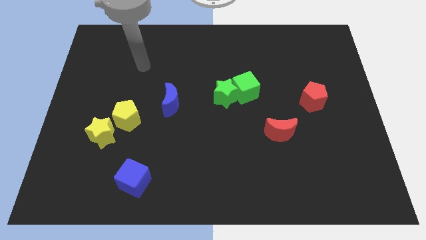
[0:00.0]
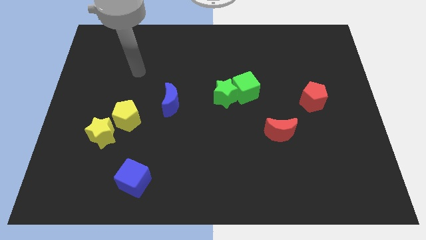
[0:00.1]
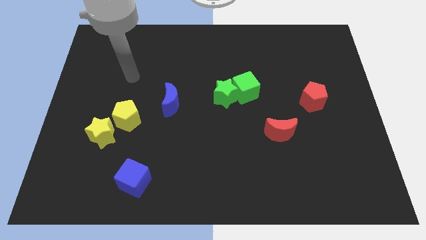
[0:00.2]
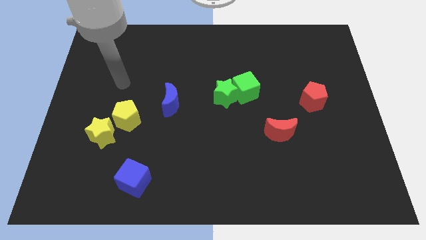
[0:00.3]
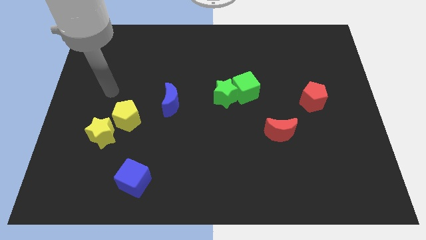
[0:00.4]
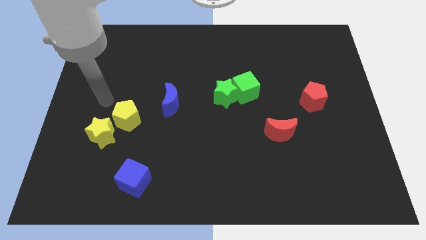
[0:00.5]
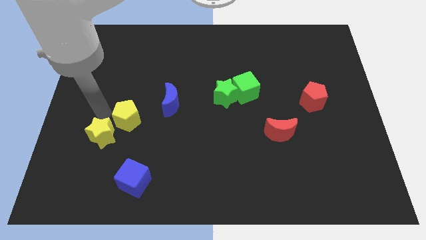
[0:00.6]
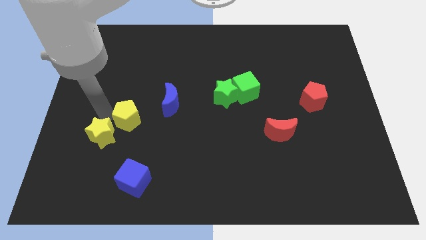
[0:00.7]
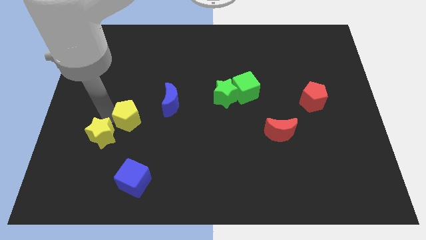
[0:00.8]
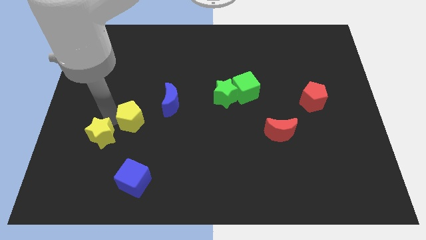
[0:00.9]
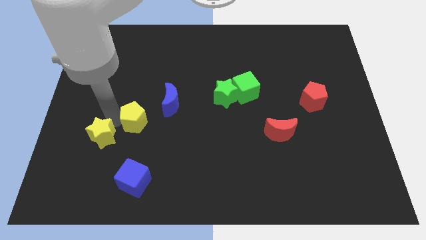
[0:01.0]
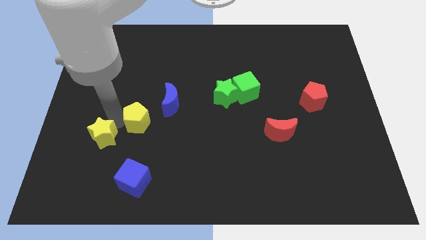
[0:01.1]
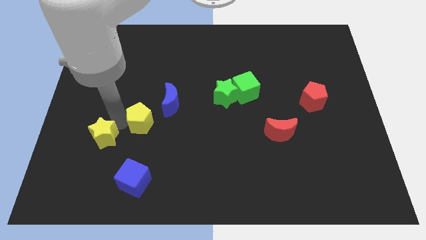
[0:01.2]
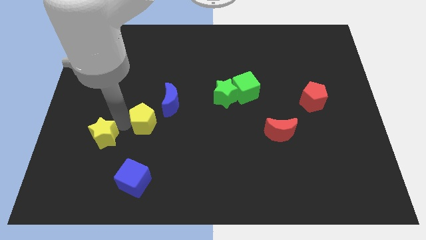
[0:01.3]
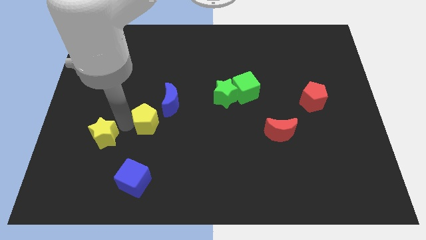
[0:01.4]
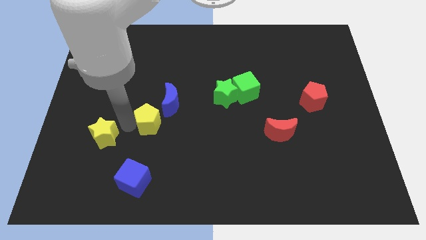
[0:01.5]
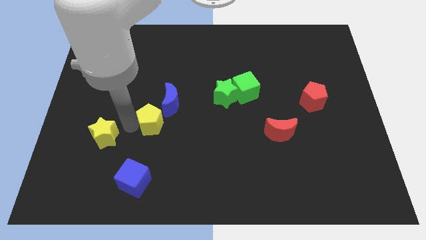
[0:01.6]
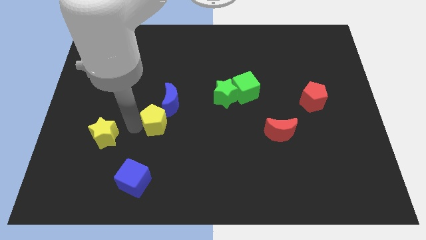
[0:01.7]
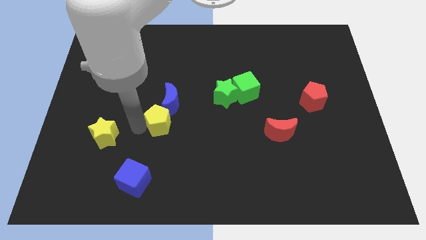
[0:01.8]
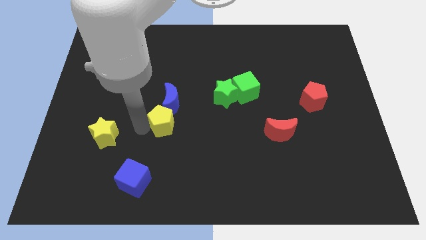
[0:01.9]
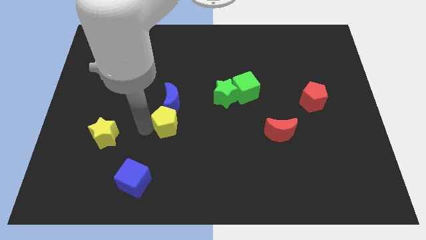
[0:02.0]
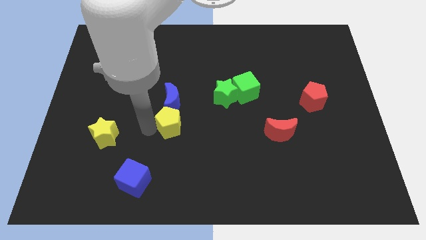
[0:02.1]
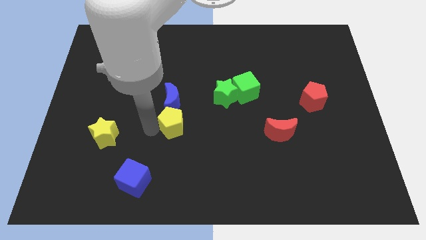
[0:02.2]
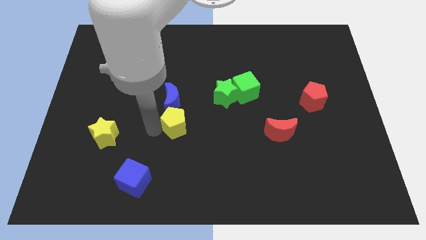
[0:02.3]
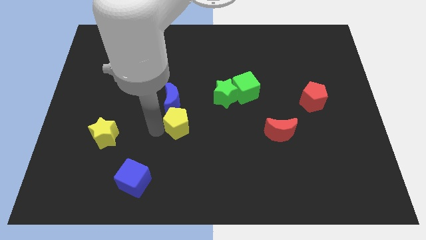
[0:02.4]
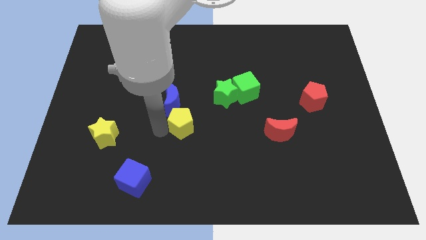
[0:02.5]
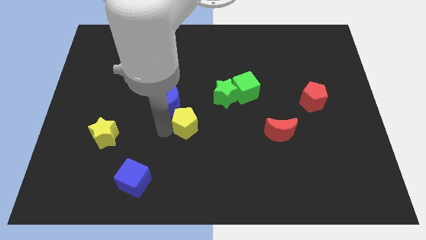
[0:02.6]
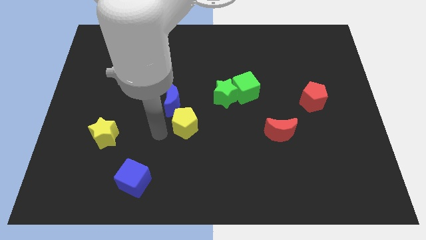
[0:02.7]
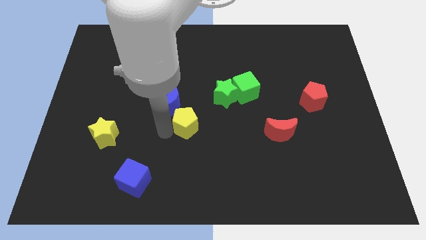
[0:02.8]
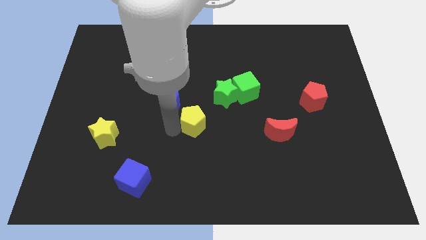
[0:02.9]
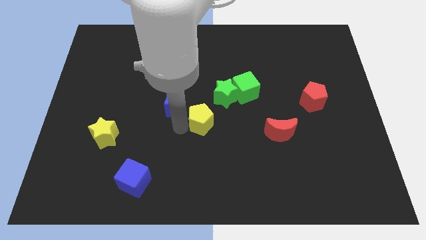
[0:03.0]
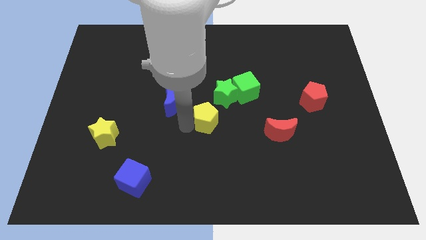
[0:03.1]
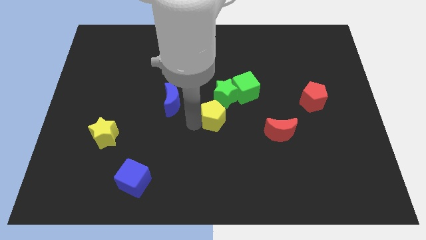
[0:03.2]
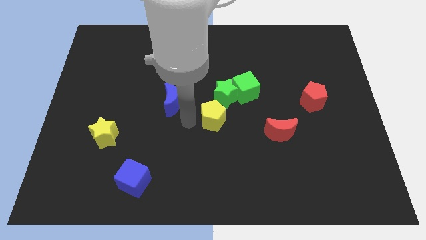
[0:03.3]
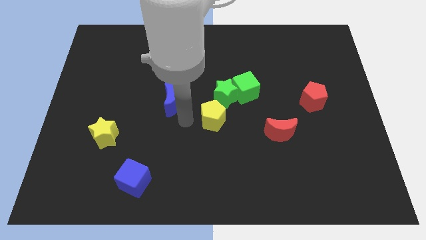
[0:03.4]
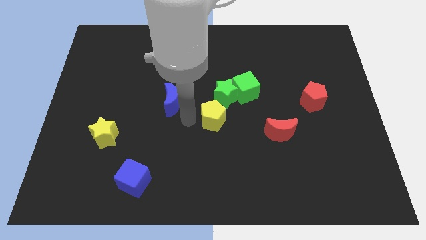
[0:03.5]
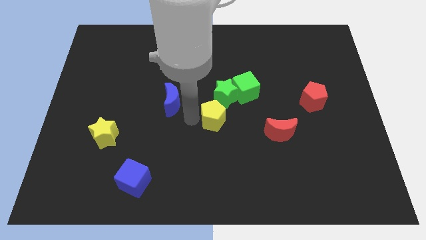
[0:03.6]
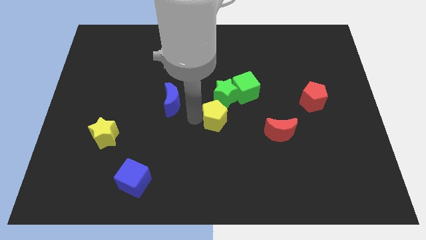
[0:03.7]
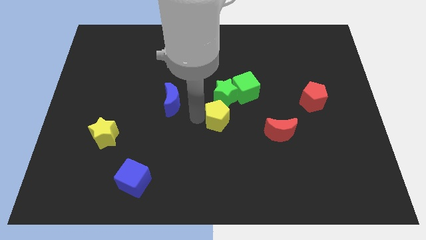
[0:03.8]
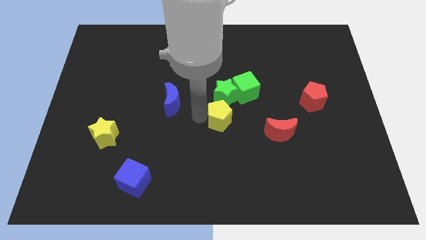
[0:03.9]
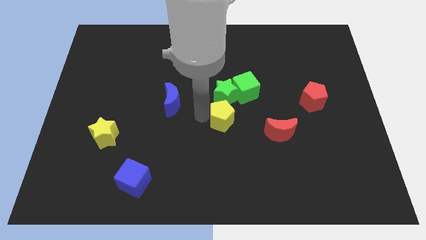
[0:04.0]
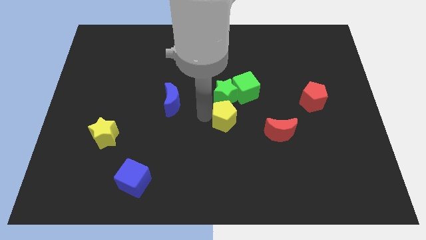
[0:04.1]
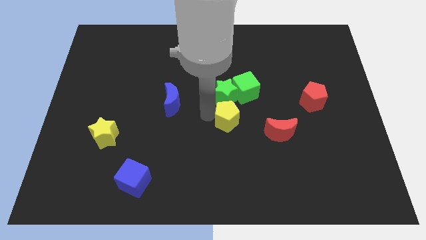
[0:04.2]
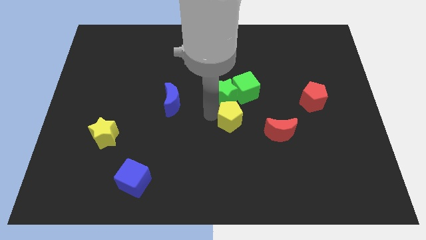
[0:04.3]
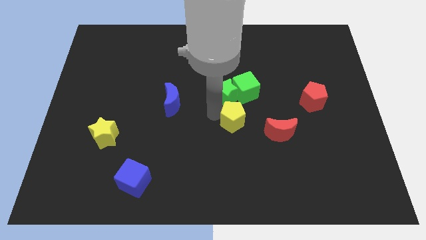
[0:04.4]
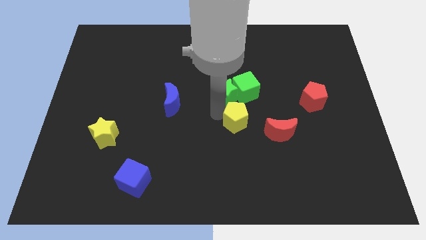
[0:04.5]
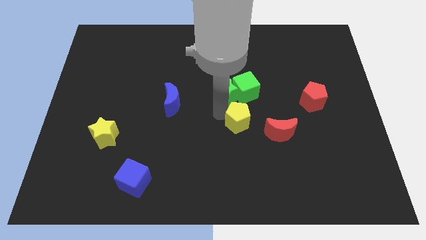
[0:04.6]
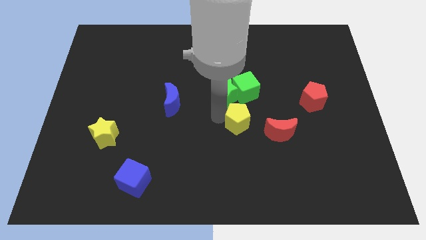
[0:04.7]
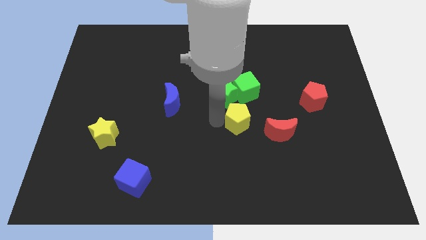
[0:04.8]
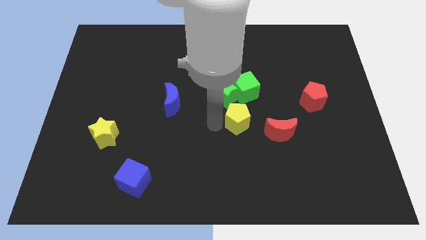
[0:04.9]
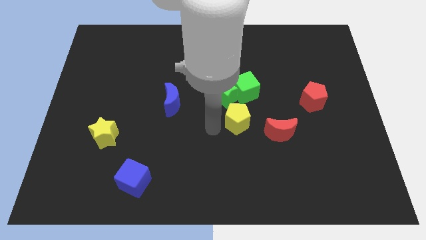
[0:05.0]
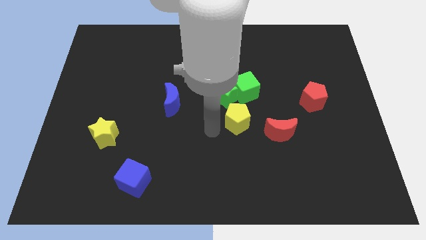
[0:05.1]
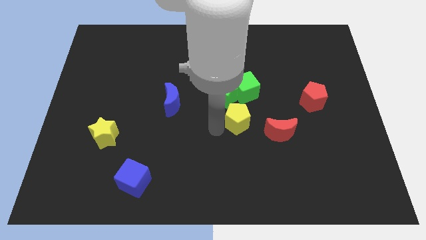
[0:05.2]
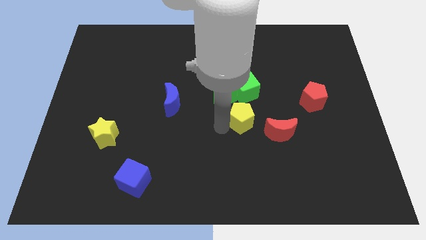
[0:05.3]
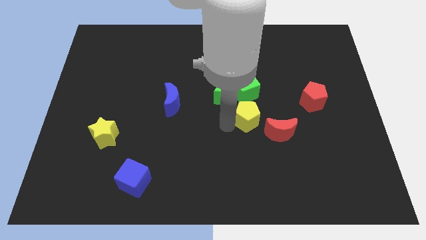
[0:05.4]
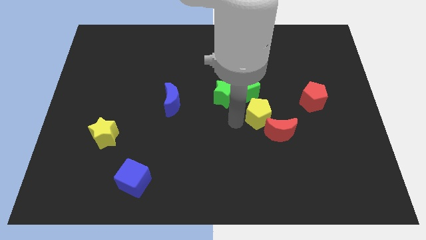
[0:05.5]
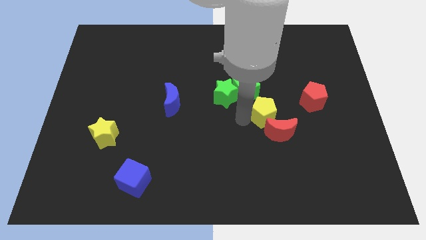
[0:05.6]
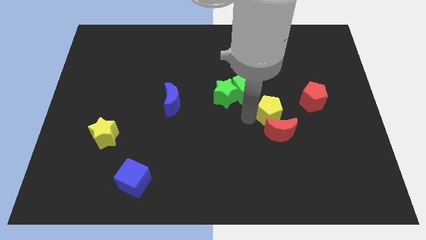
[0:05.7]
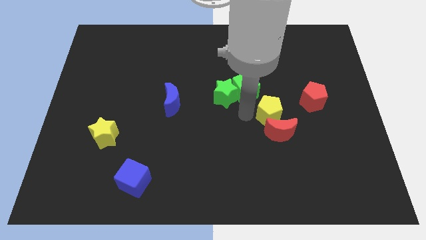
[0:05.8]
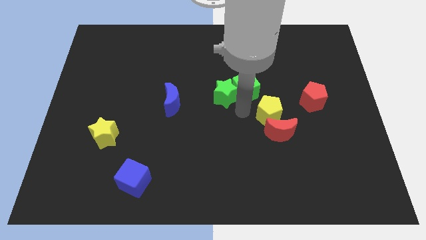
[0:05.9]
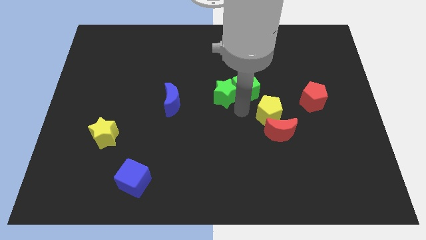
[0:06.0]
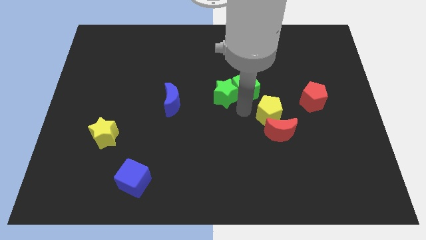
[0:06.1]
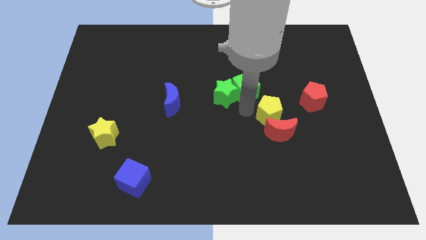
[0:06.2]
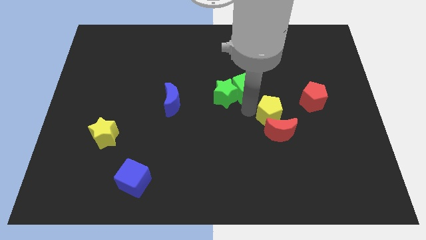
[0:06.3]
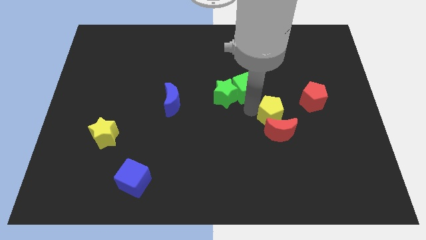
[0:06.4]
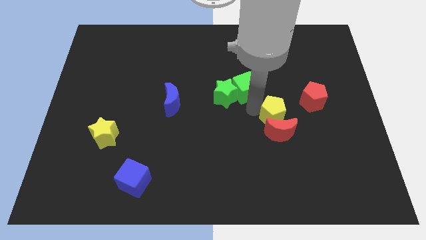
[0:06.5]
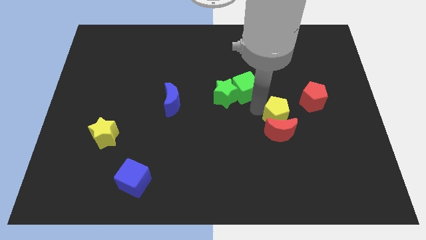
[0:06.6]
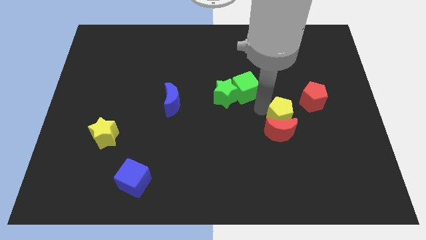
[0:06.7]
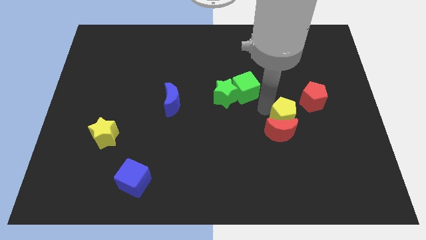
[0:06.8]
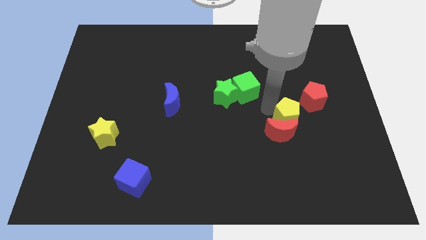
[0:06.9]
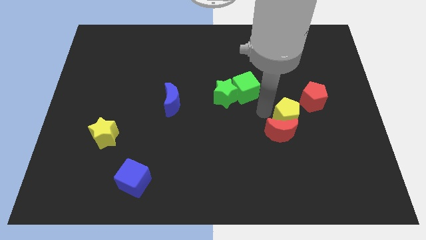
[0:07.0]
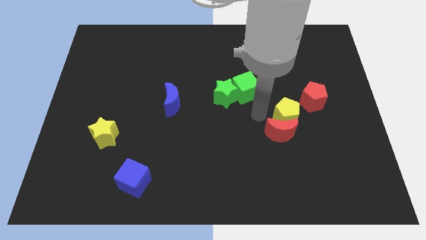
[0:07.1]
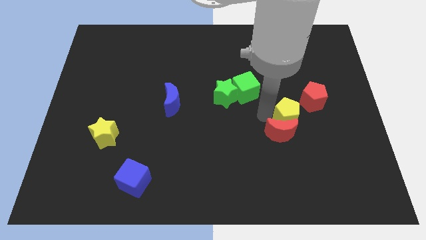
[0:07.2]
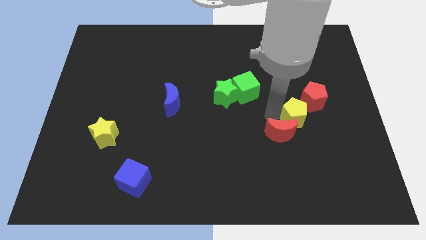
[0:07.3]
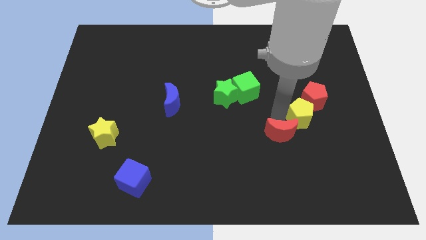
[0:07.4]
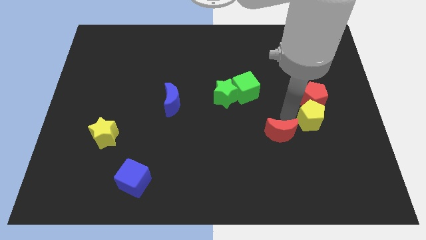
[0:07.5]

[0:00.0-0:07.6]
push the yellow pentagon to the bottom right of the red pentagon
